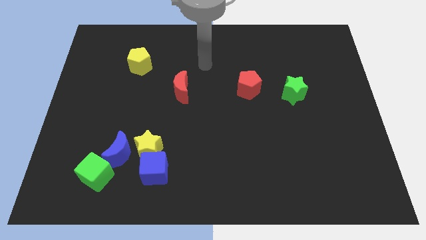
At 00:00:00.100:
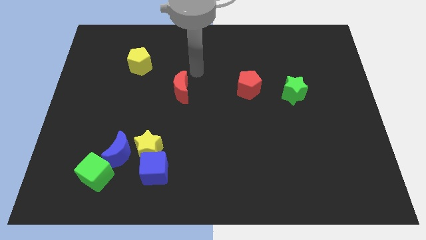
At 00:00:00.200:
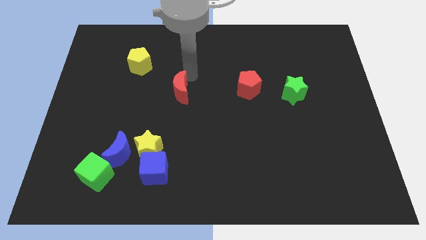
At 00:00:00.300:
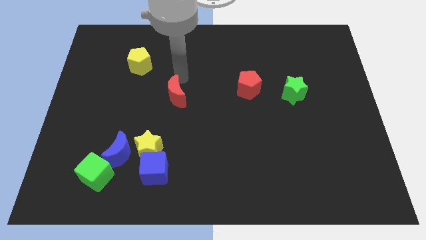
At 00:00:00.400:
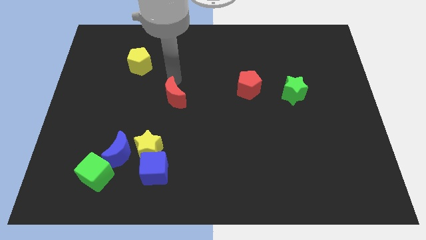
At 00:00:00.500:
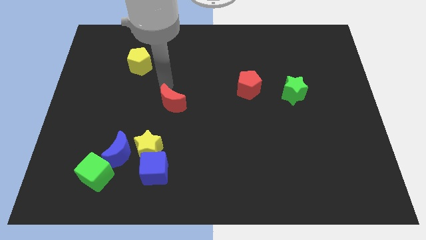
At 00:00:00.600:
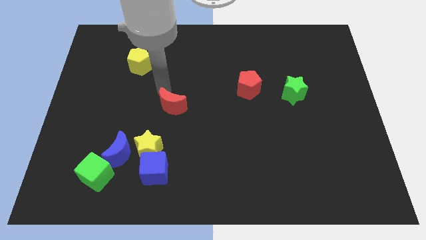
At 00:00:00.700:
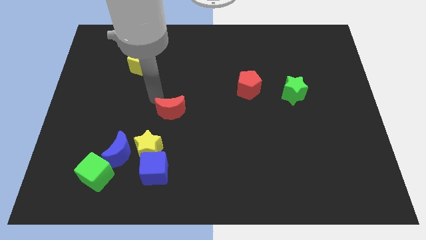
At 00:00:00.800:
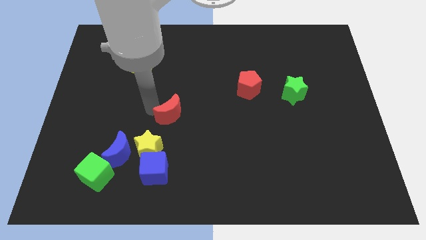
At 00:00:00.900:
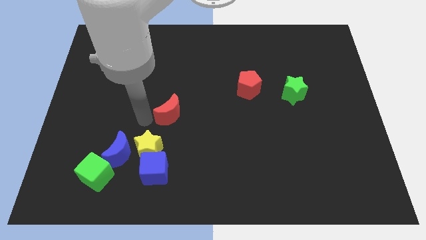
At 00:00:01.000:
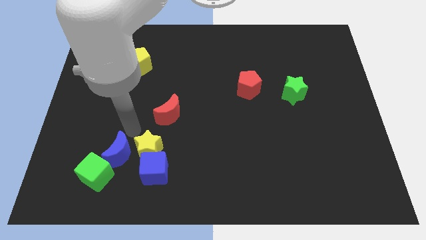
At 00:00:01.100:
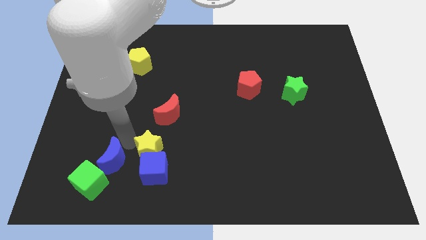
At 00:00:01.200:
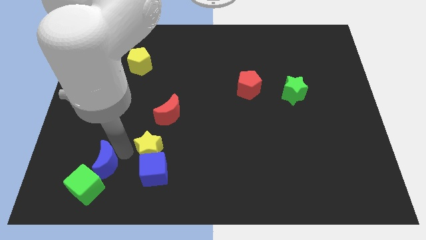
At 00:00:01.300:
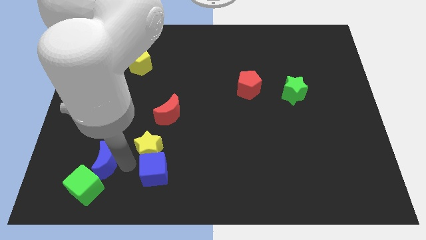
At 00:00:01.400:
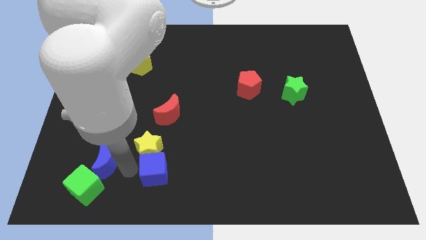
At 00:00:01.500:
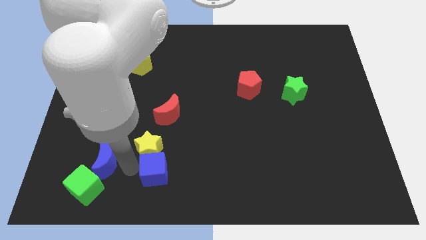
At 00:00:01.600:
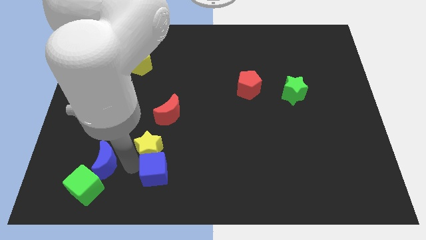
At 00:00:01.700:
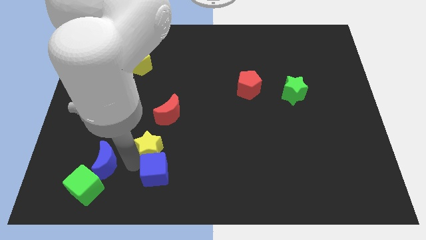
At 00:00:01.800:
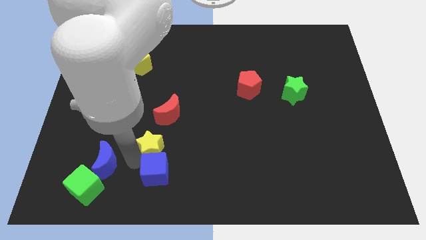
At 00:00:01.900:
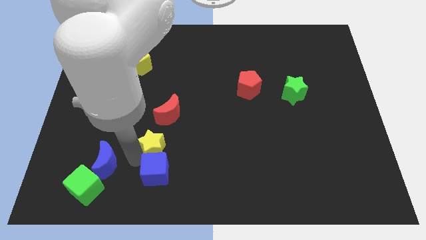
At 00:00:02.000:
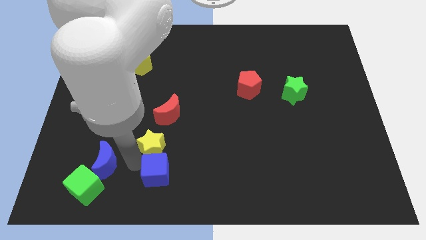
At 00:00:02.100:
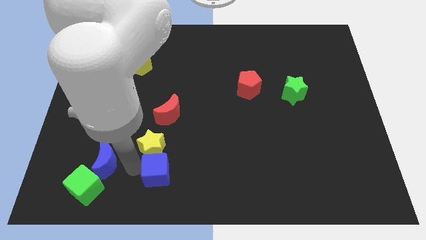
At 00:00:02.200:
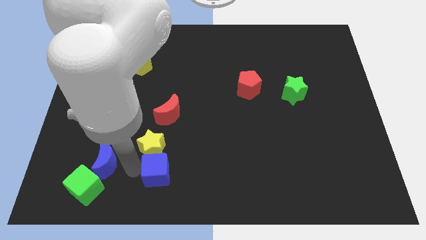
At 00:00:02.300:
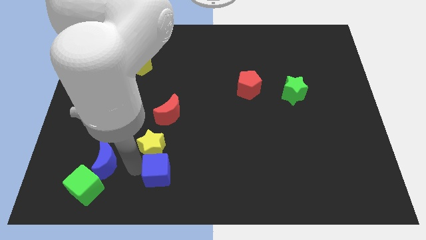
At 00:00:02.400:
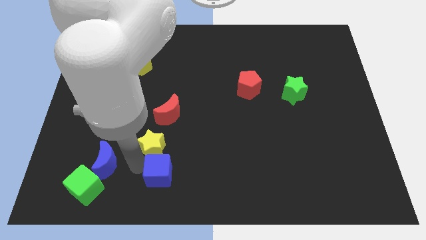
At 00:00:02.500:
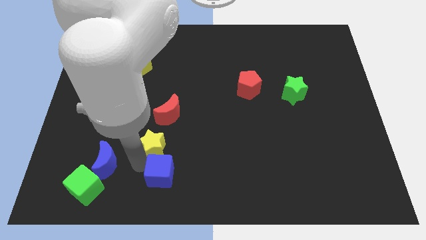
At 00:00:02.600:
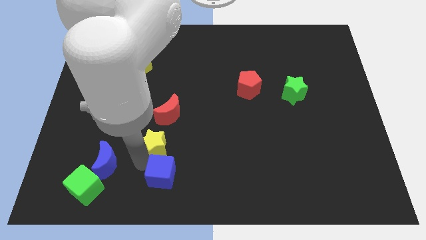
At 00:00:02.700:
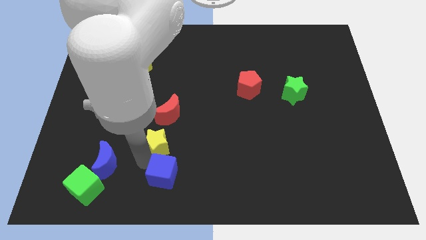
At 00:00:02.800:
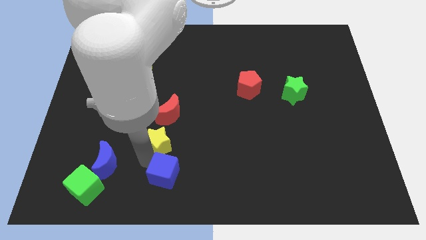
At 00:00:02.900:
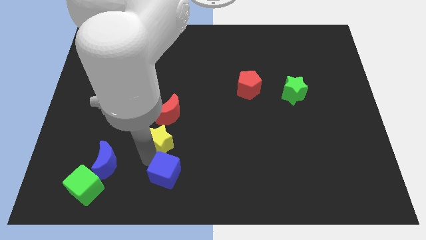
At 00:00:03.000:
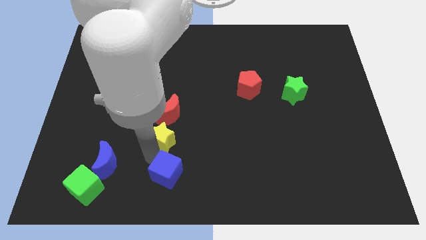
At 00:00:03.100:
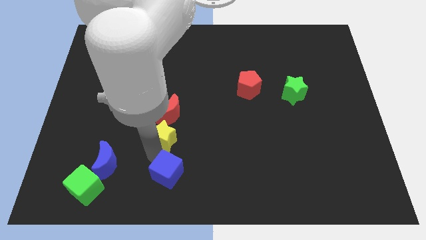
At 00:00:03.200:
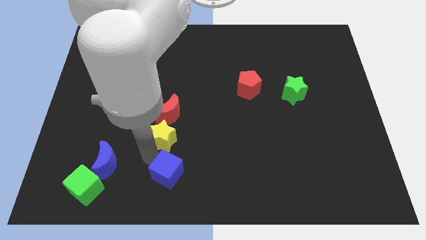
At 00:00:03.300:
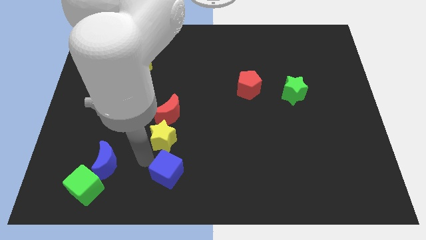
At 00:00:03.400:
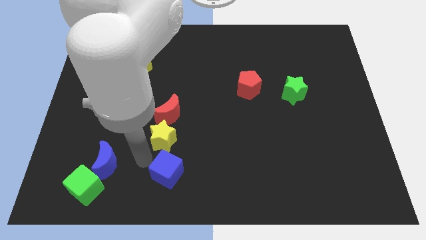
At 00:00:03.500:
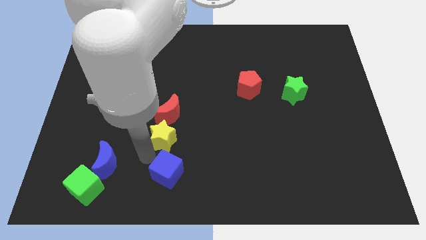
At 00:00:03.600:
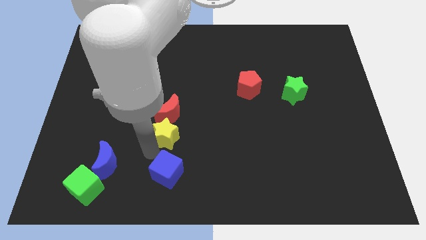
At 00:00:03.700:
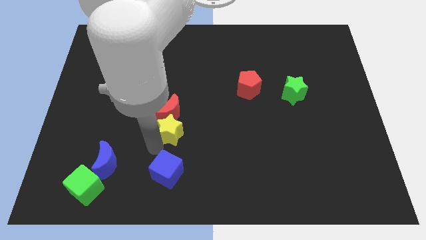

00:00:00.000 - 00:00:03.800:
pull the yellow star apart from the blue cube and blue moon

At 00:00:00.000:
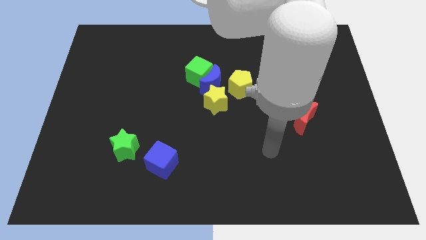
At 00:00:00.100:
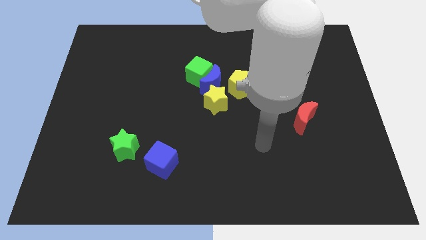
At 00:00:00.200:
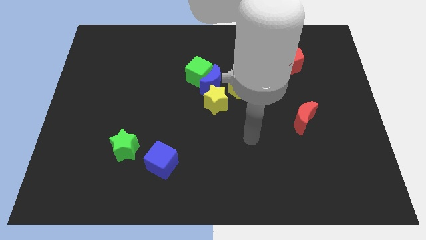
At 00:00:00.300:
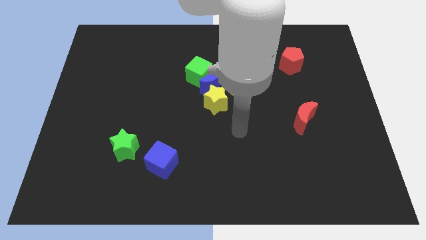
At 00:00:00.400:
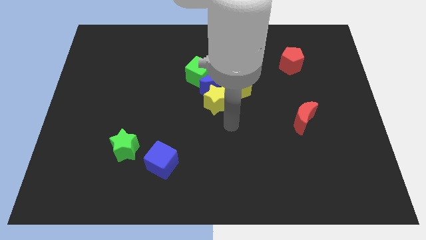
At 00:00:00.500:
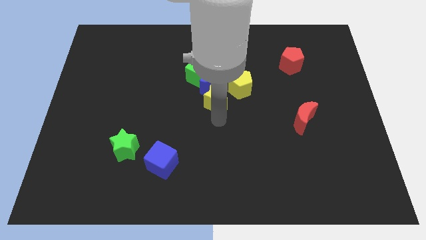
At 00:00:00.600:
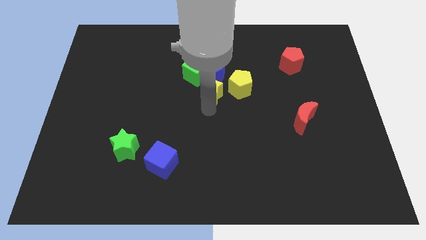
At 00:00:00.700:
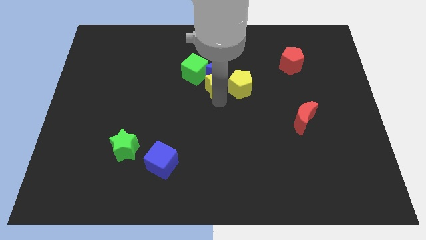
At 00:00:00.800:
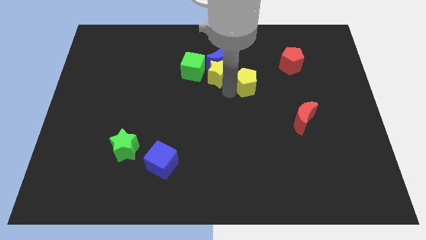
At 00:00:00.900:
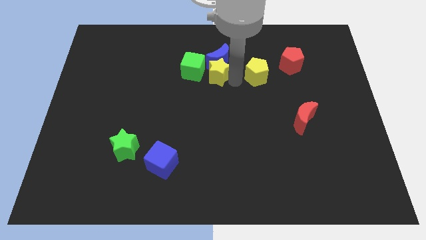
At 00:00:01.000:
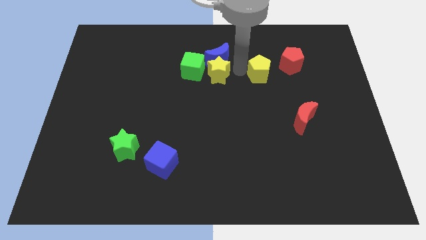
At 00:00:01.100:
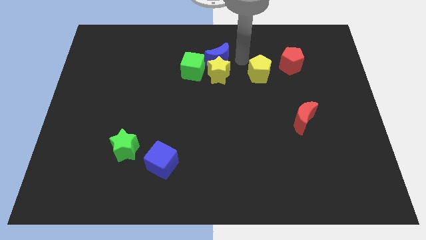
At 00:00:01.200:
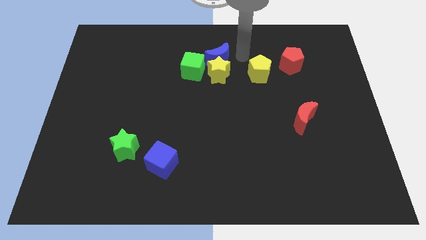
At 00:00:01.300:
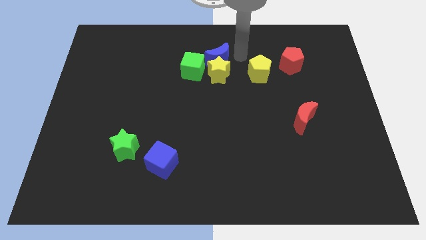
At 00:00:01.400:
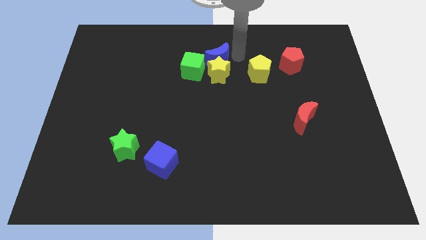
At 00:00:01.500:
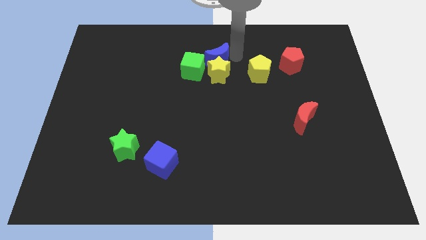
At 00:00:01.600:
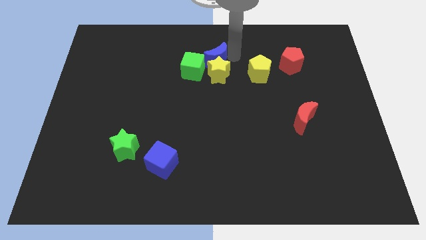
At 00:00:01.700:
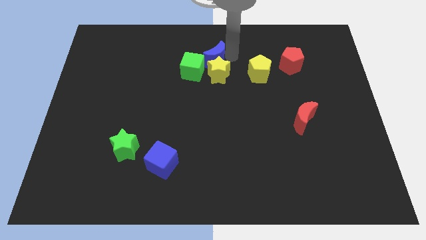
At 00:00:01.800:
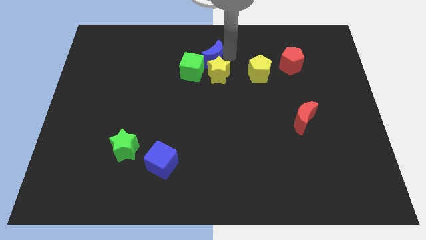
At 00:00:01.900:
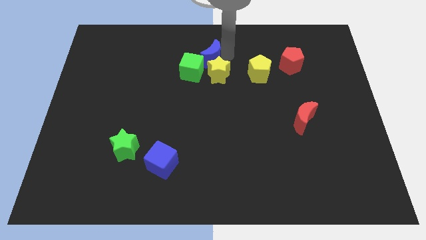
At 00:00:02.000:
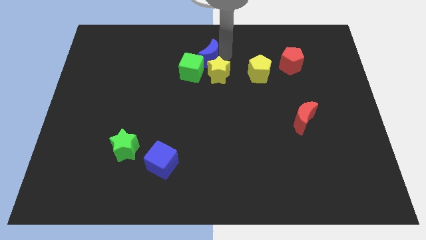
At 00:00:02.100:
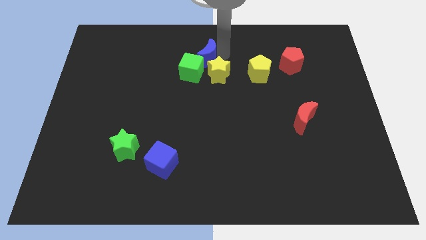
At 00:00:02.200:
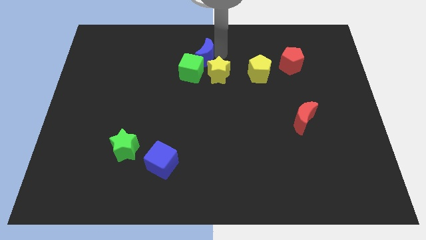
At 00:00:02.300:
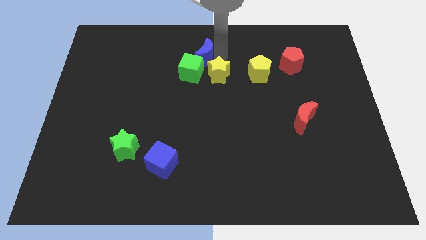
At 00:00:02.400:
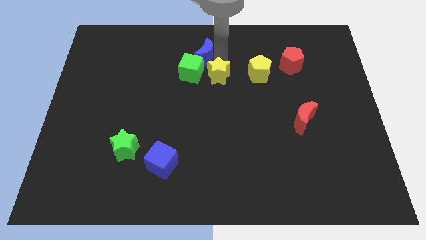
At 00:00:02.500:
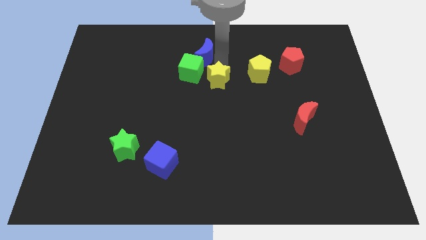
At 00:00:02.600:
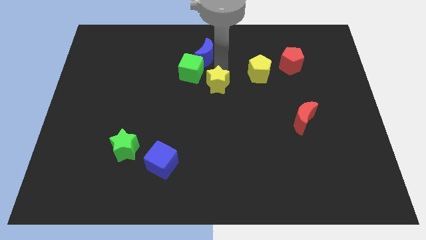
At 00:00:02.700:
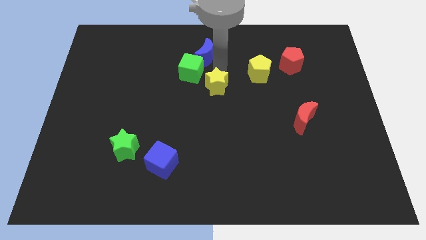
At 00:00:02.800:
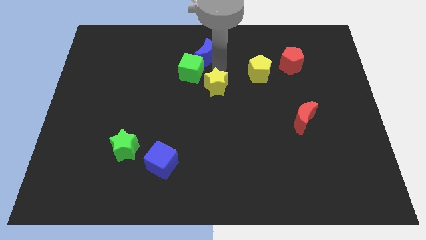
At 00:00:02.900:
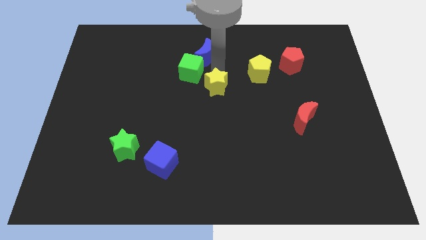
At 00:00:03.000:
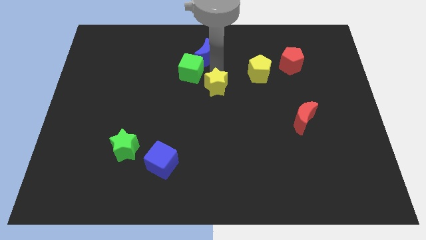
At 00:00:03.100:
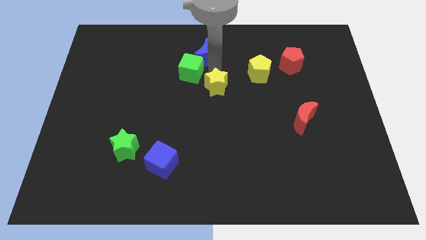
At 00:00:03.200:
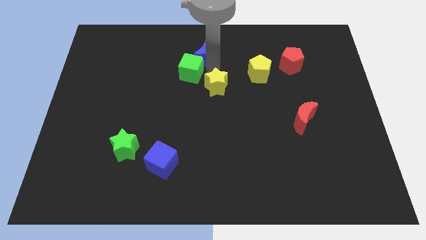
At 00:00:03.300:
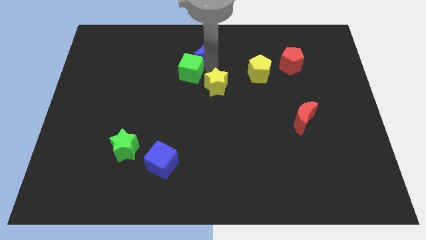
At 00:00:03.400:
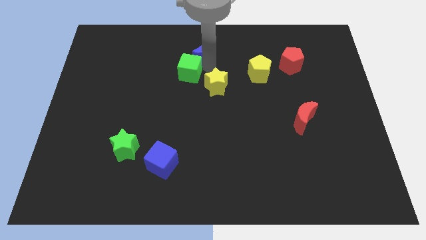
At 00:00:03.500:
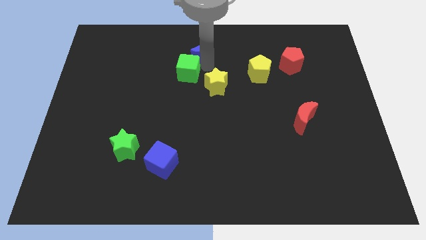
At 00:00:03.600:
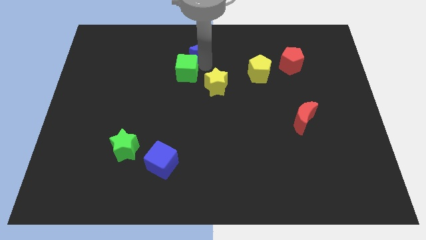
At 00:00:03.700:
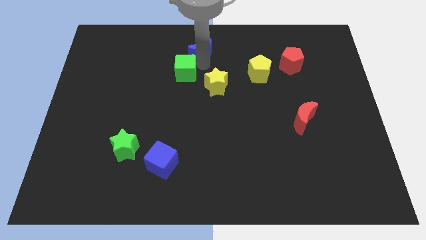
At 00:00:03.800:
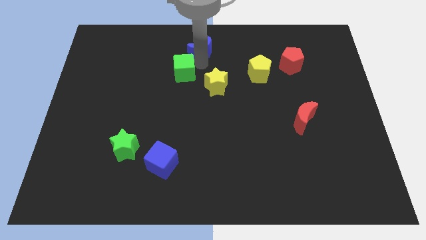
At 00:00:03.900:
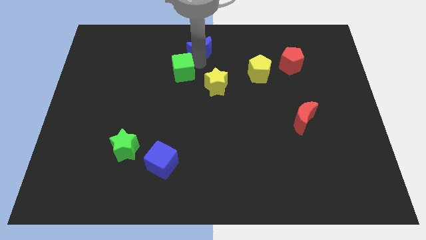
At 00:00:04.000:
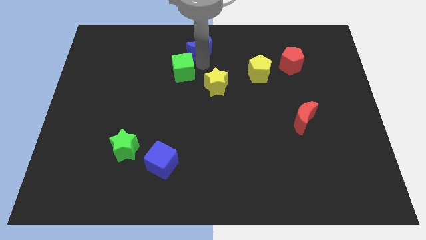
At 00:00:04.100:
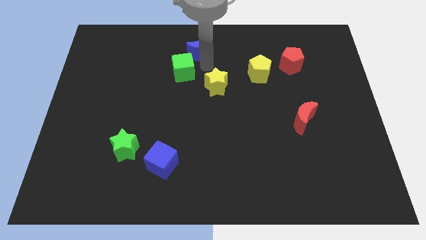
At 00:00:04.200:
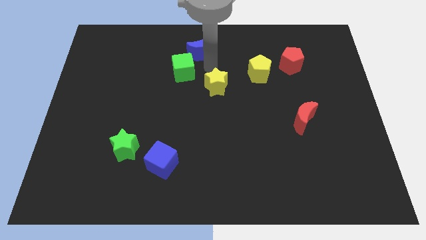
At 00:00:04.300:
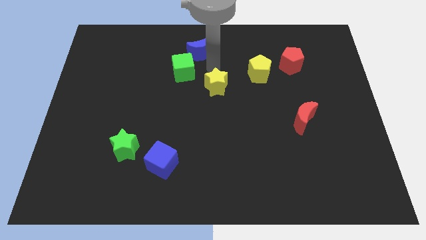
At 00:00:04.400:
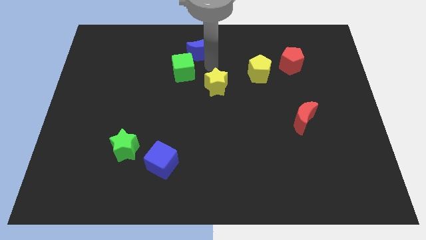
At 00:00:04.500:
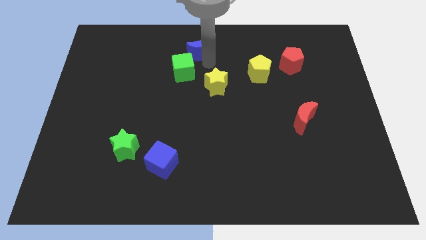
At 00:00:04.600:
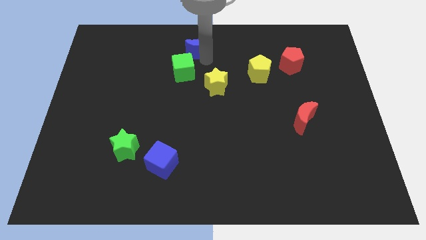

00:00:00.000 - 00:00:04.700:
pull the blue moon apart from the group

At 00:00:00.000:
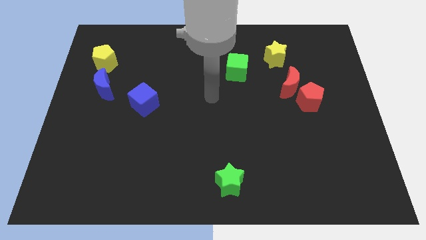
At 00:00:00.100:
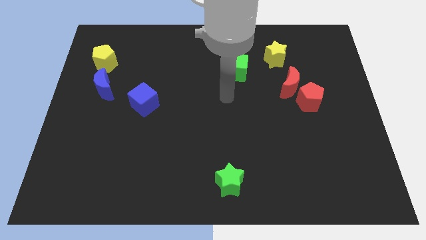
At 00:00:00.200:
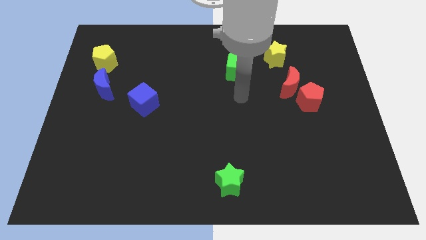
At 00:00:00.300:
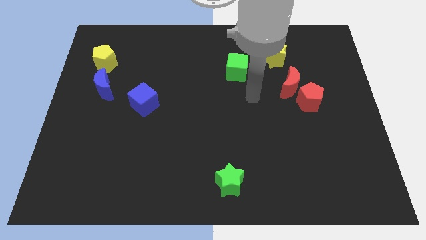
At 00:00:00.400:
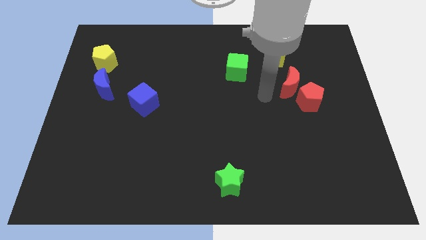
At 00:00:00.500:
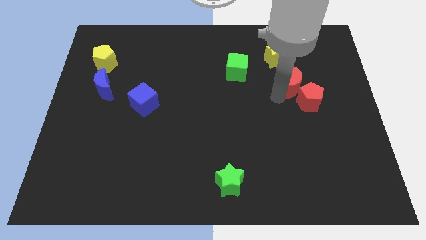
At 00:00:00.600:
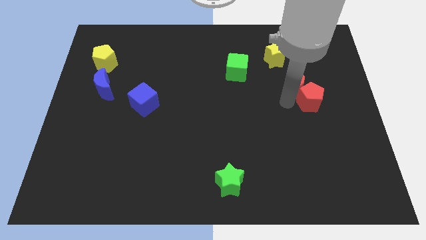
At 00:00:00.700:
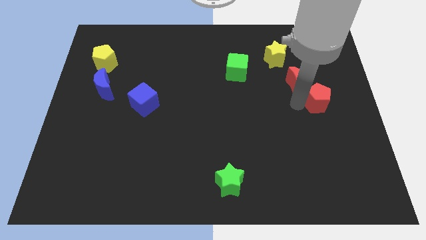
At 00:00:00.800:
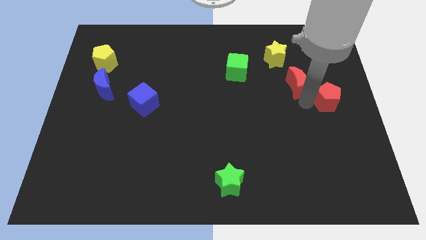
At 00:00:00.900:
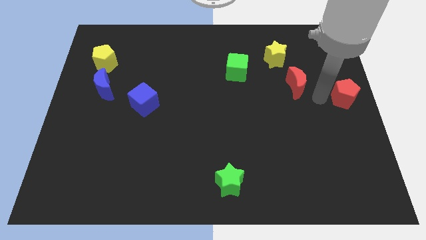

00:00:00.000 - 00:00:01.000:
move the red moon away from the red pentagon
